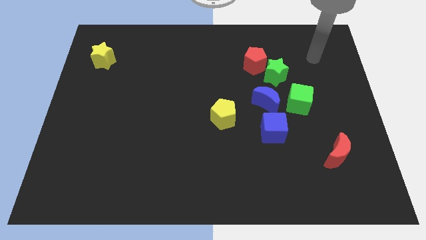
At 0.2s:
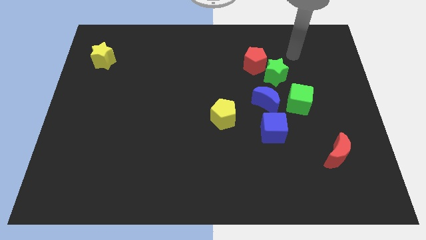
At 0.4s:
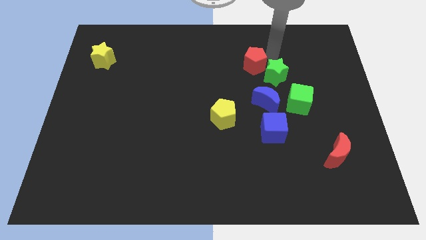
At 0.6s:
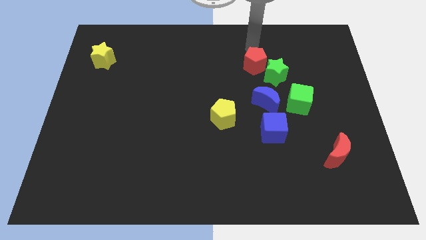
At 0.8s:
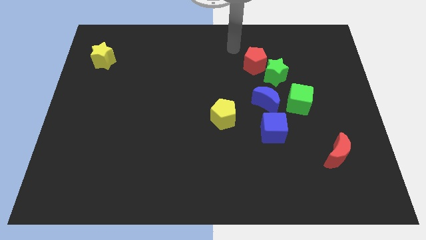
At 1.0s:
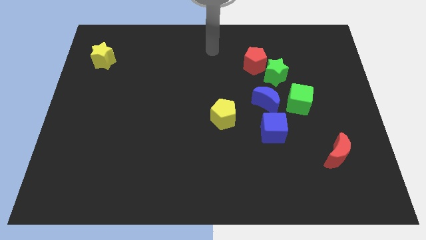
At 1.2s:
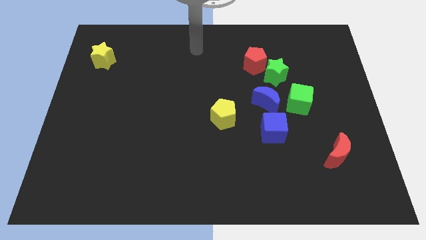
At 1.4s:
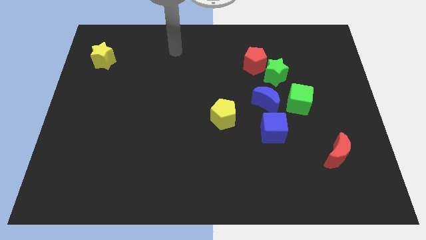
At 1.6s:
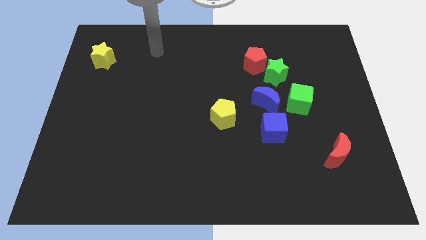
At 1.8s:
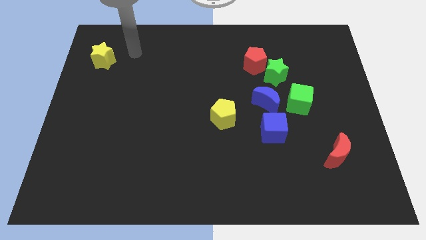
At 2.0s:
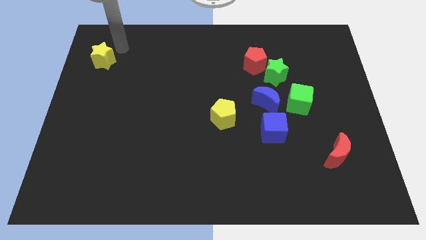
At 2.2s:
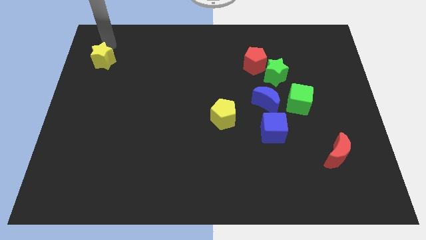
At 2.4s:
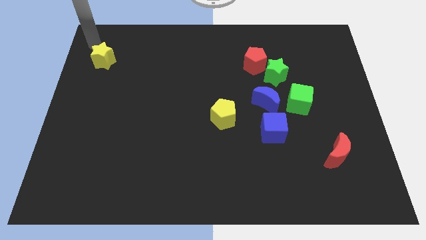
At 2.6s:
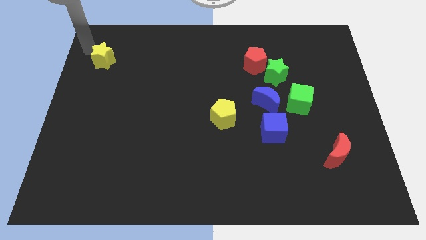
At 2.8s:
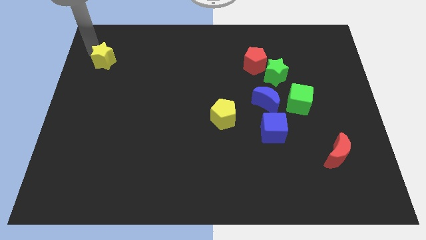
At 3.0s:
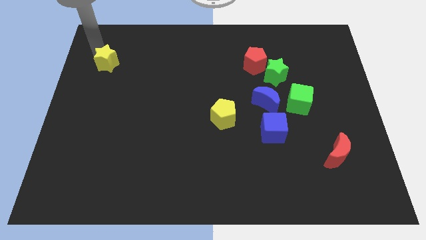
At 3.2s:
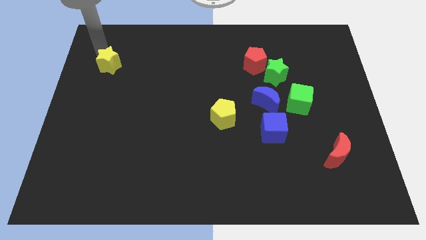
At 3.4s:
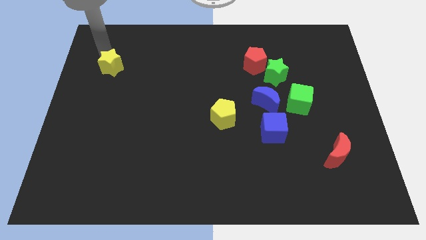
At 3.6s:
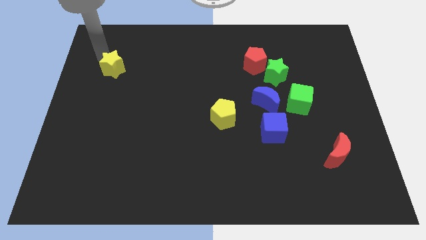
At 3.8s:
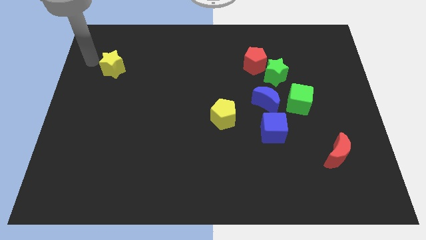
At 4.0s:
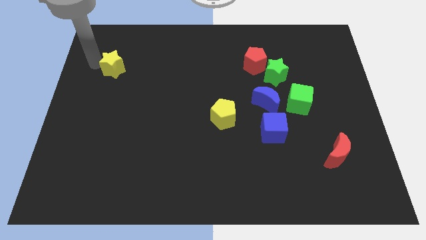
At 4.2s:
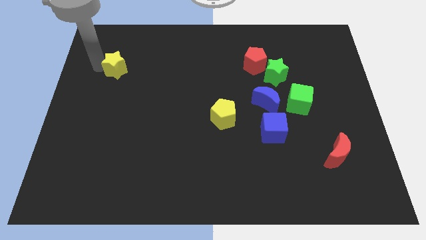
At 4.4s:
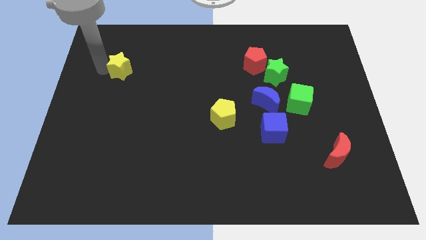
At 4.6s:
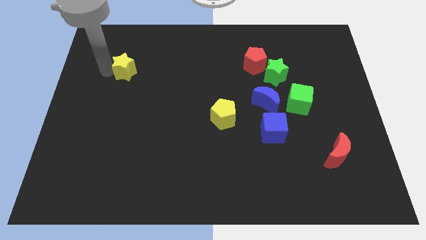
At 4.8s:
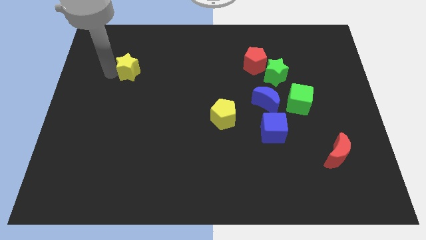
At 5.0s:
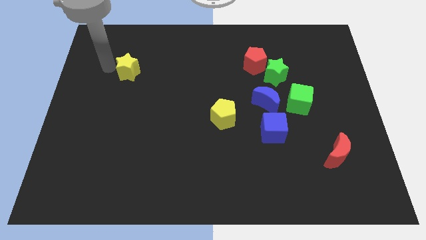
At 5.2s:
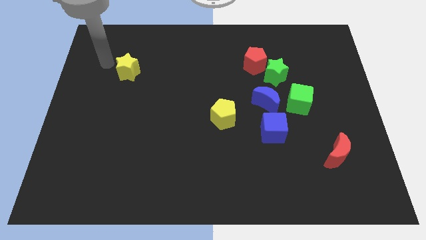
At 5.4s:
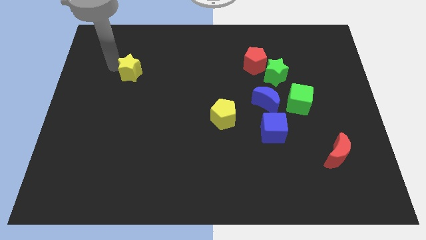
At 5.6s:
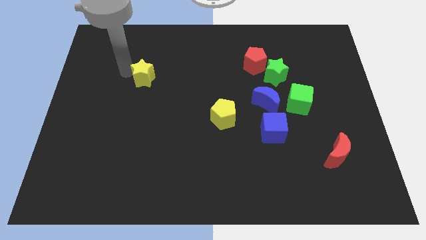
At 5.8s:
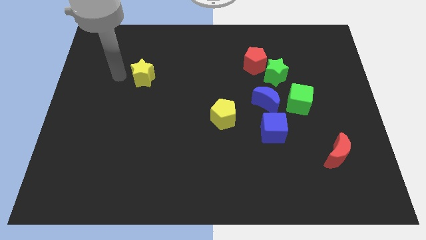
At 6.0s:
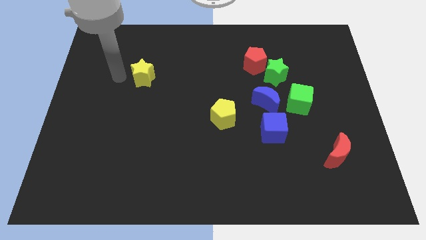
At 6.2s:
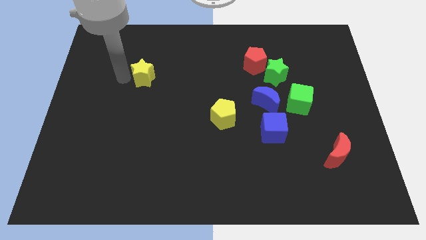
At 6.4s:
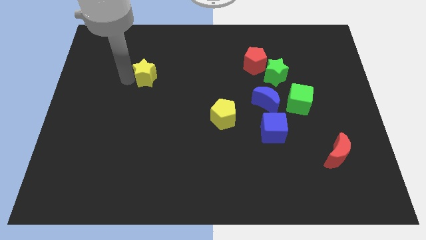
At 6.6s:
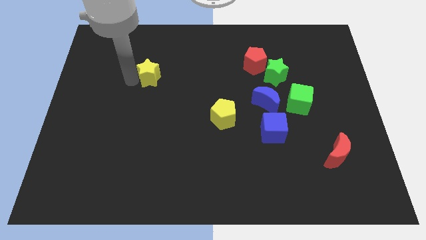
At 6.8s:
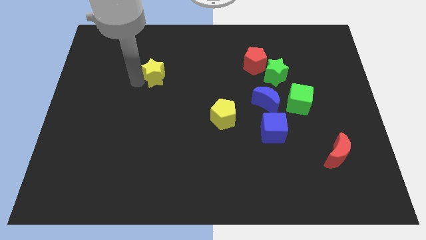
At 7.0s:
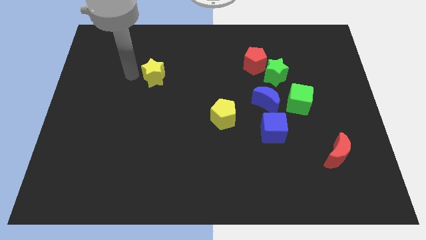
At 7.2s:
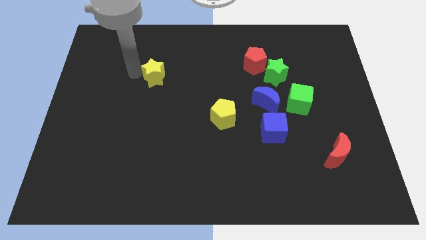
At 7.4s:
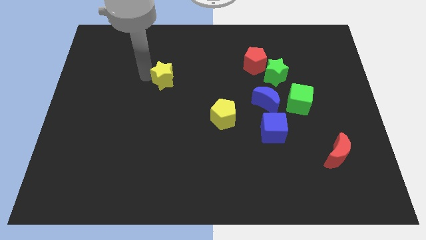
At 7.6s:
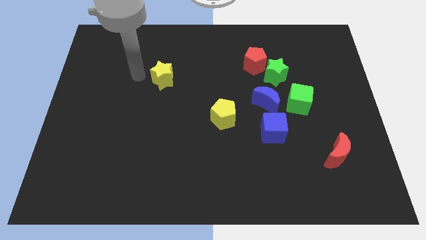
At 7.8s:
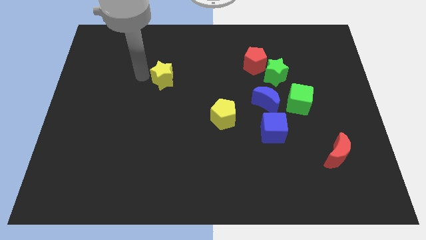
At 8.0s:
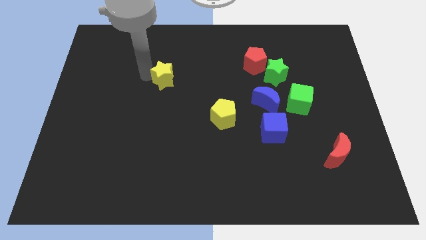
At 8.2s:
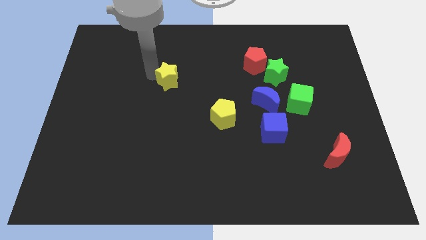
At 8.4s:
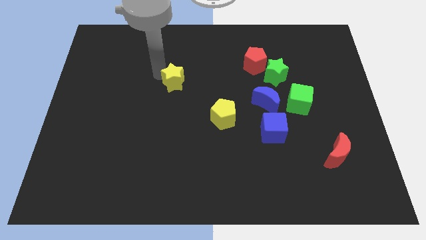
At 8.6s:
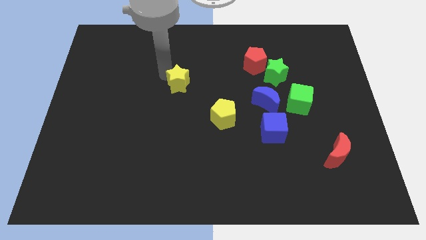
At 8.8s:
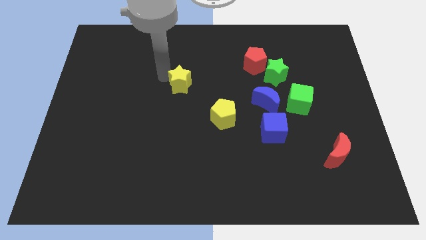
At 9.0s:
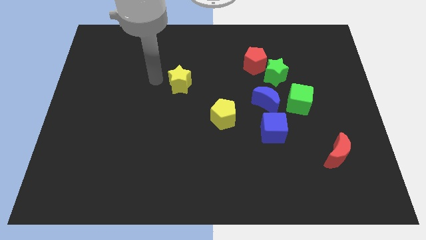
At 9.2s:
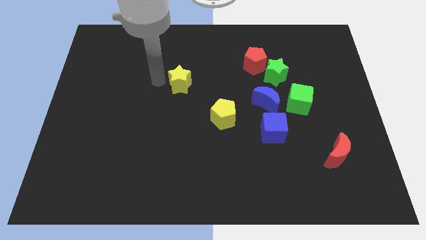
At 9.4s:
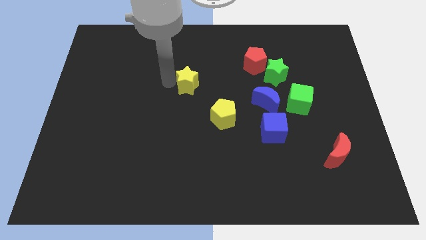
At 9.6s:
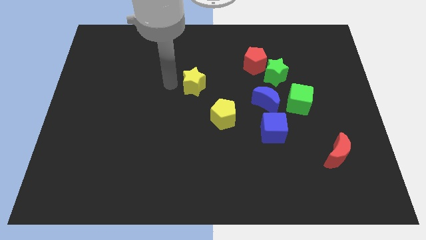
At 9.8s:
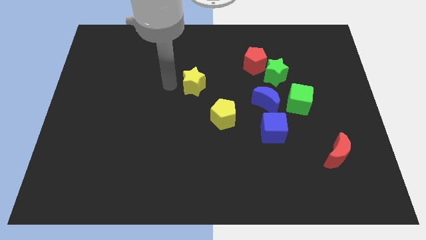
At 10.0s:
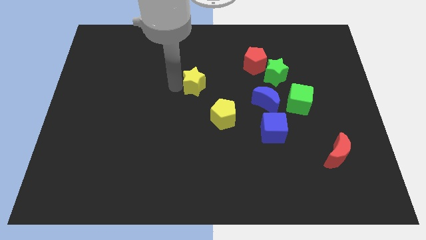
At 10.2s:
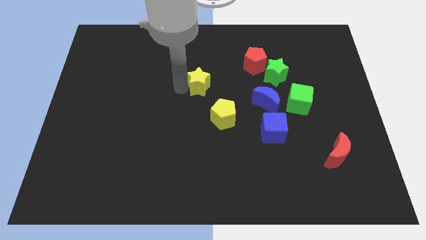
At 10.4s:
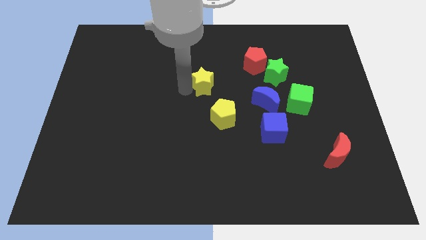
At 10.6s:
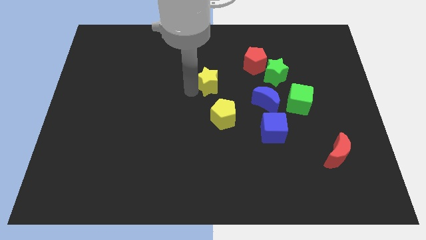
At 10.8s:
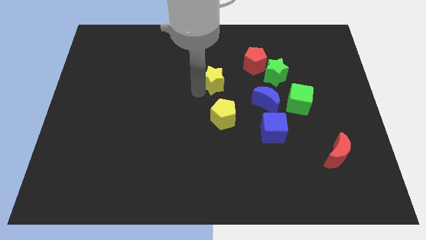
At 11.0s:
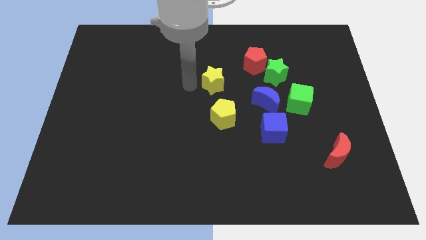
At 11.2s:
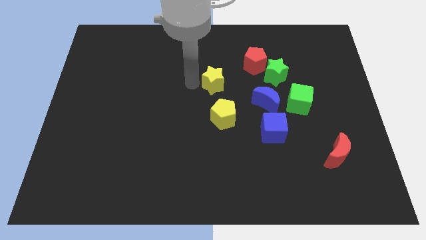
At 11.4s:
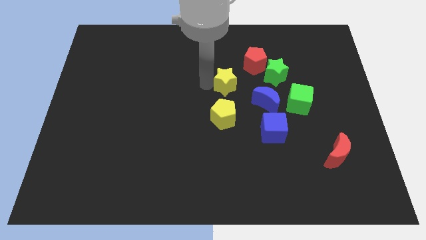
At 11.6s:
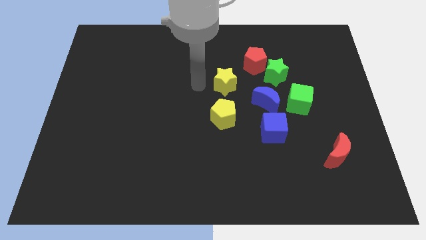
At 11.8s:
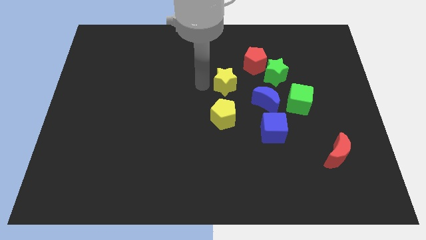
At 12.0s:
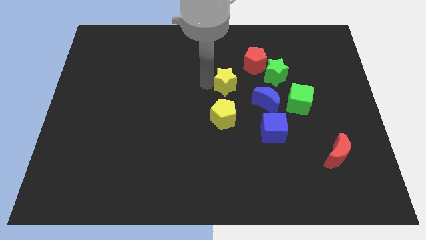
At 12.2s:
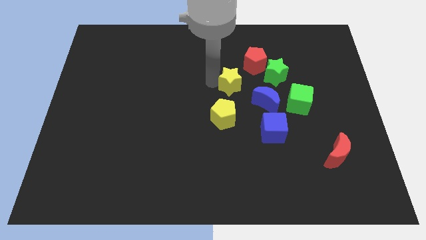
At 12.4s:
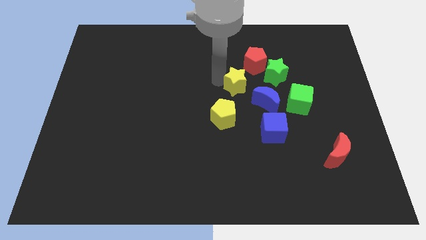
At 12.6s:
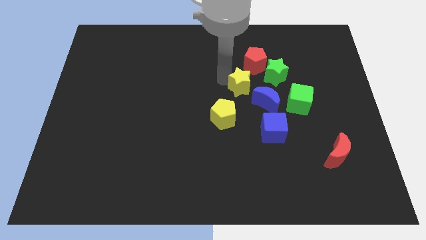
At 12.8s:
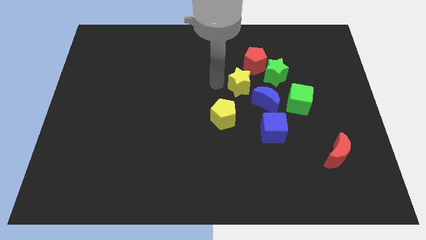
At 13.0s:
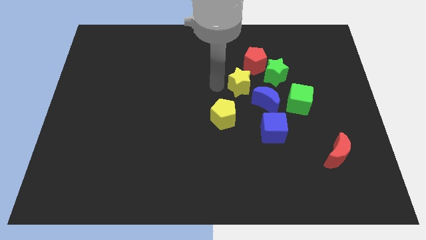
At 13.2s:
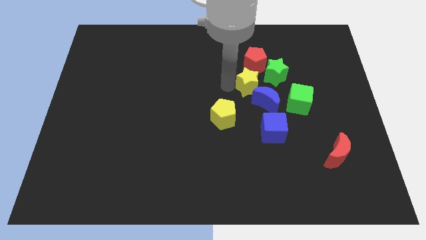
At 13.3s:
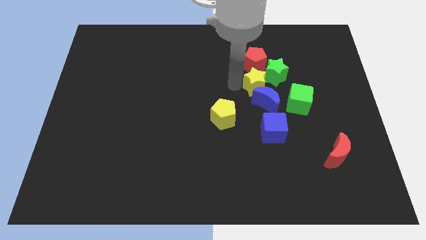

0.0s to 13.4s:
move the yellow star above the blue cube

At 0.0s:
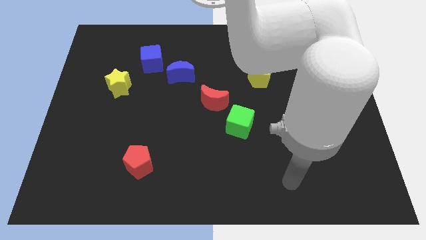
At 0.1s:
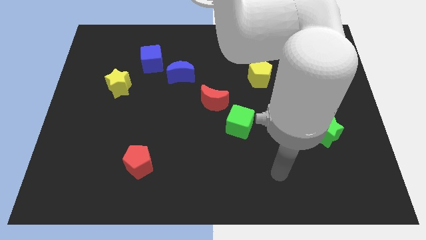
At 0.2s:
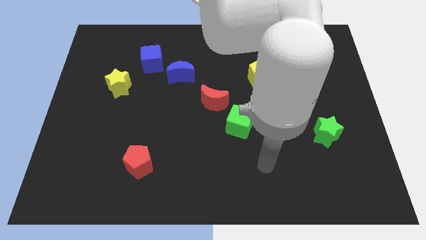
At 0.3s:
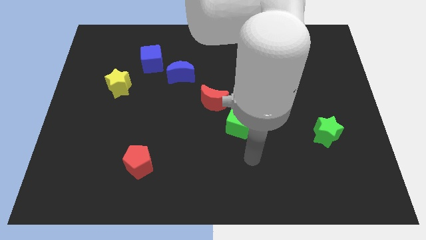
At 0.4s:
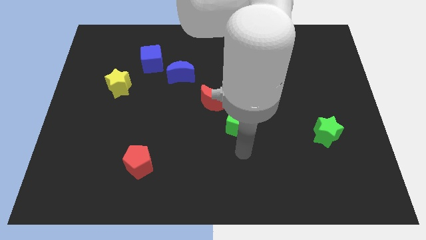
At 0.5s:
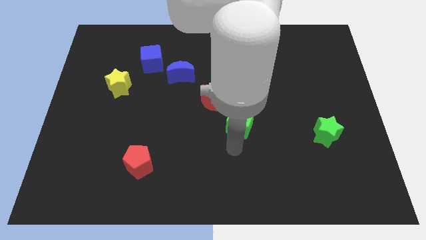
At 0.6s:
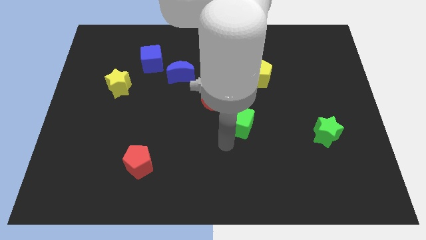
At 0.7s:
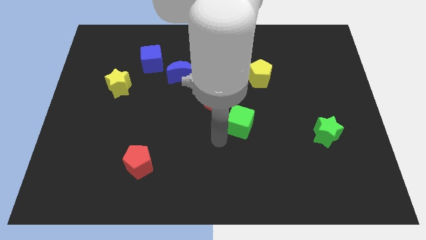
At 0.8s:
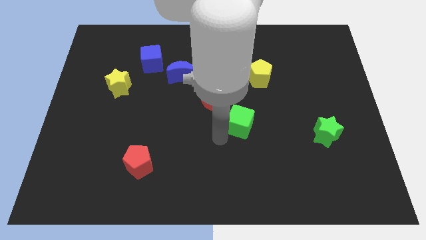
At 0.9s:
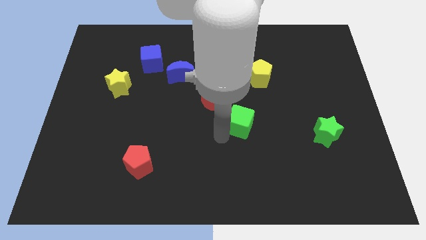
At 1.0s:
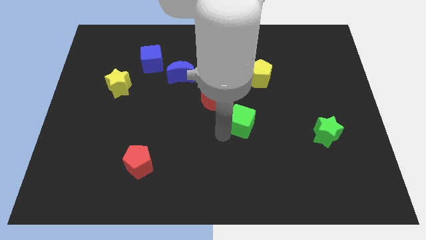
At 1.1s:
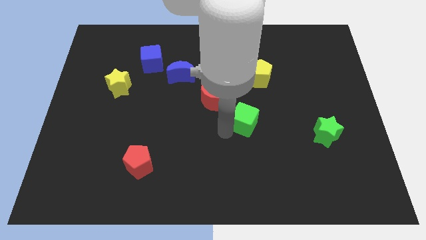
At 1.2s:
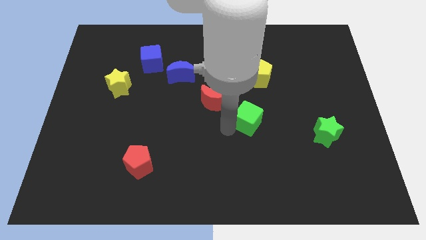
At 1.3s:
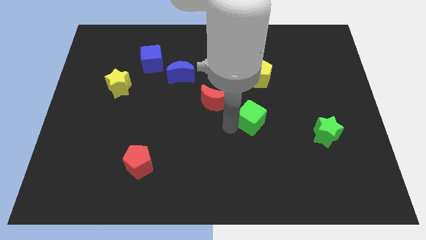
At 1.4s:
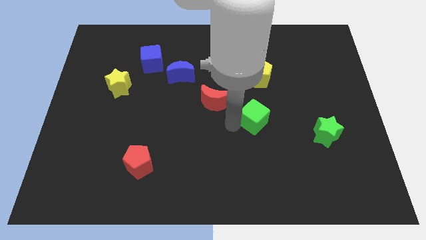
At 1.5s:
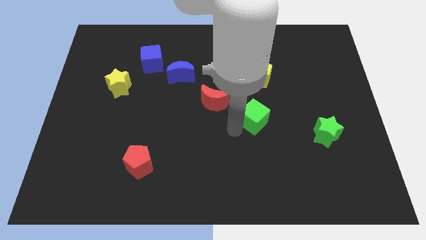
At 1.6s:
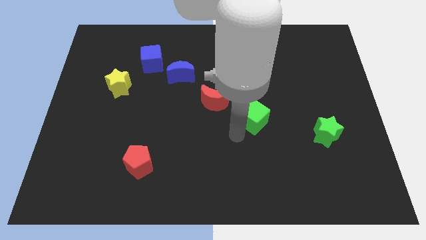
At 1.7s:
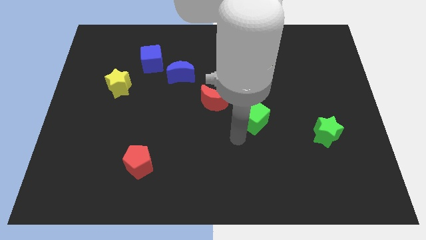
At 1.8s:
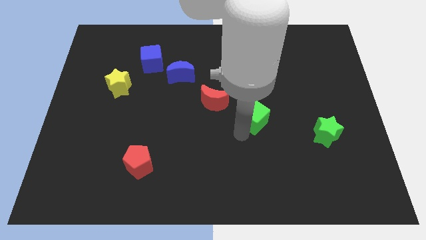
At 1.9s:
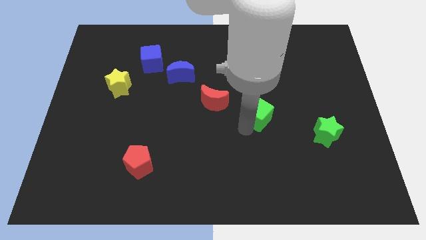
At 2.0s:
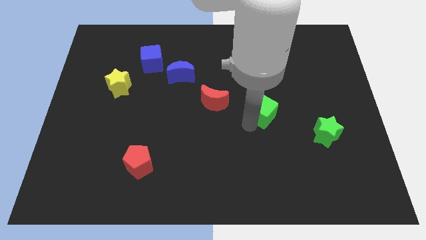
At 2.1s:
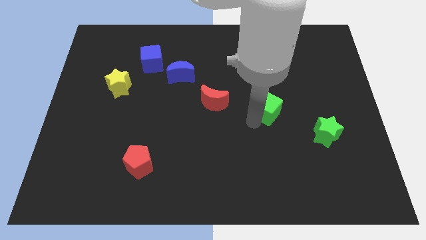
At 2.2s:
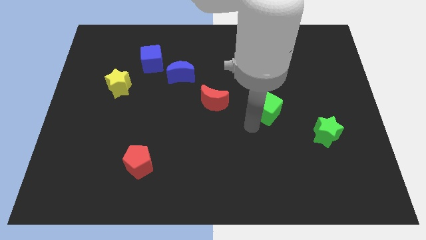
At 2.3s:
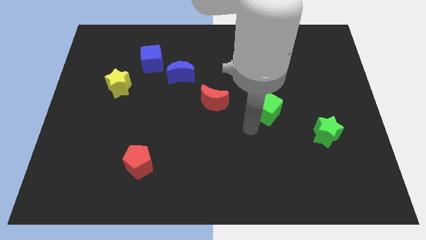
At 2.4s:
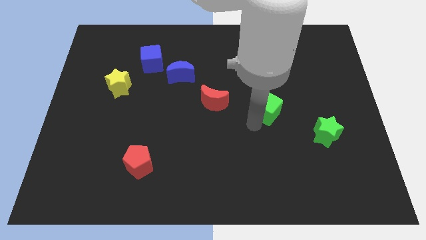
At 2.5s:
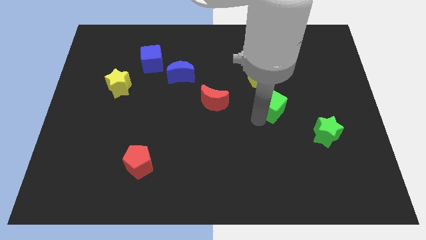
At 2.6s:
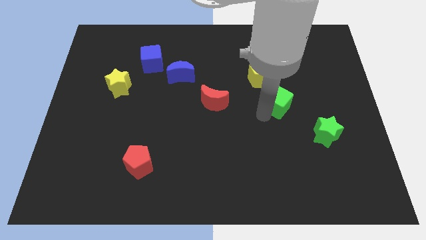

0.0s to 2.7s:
slide the green cube to the bottom right side of the yellow pentagon
